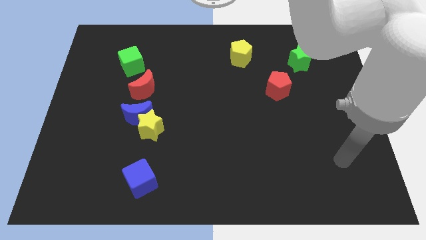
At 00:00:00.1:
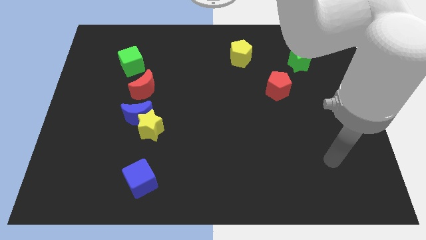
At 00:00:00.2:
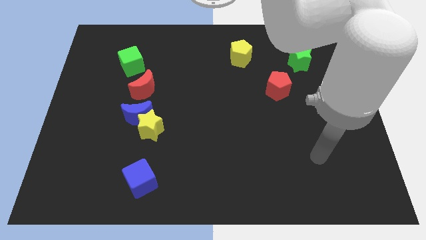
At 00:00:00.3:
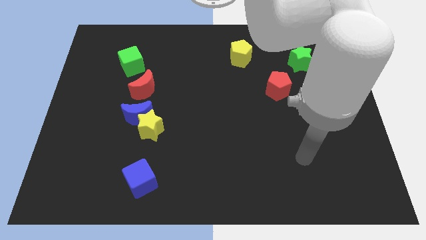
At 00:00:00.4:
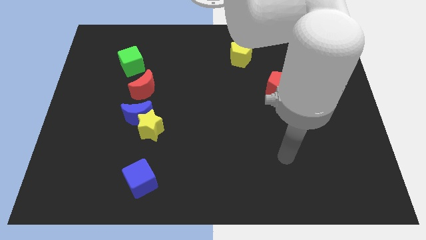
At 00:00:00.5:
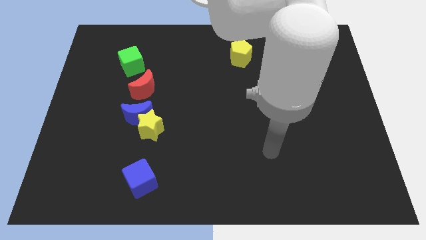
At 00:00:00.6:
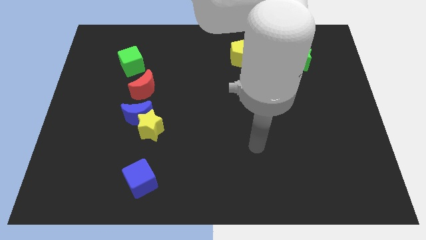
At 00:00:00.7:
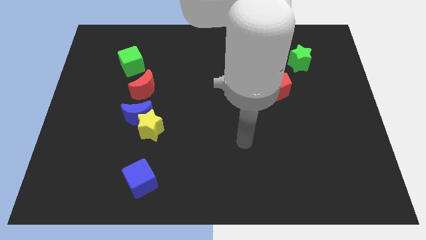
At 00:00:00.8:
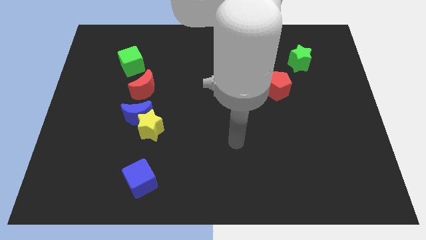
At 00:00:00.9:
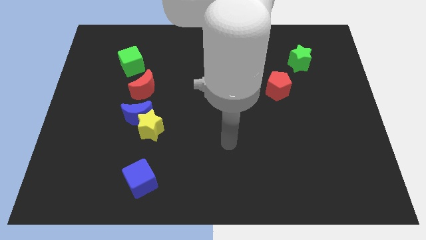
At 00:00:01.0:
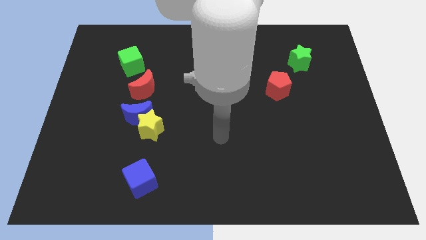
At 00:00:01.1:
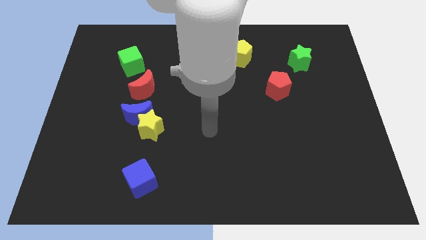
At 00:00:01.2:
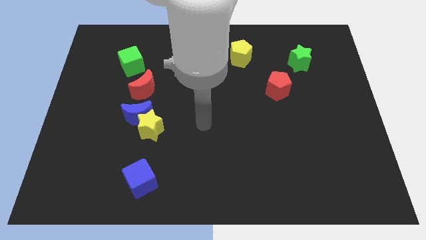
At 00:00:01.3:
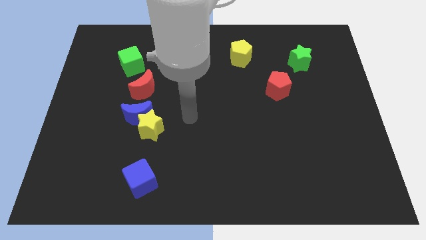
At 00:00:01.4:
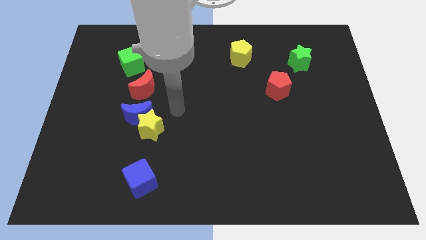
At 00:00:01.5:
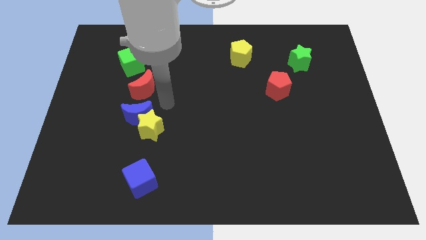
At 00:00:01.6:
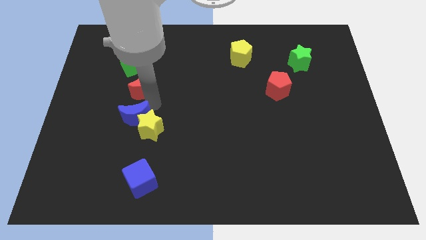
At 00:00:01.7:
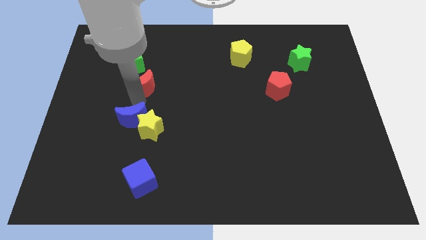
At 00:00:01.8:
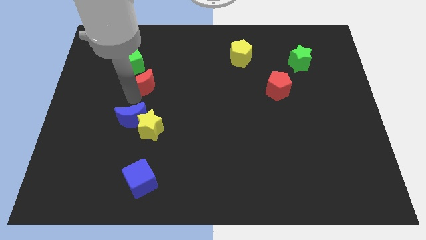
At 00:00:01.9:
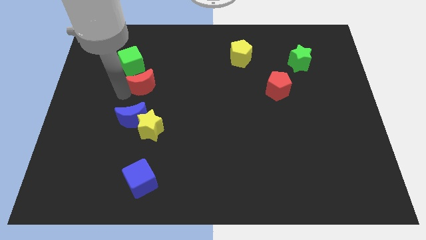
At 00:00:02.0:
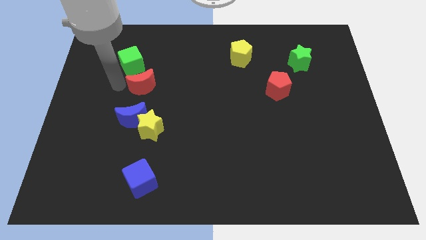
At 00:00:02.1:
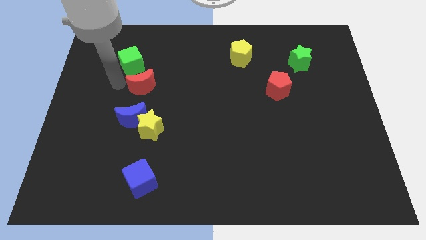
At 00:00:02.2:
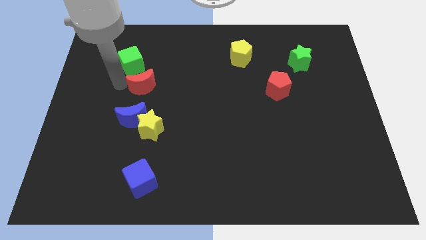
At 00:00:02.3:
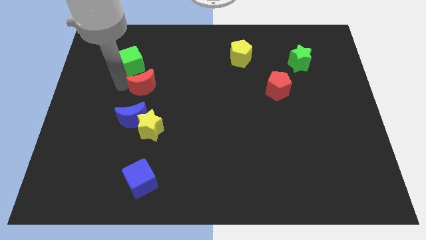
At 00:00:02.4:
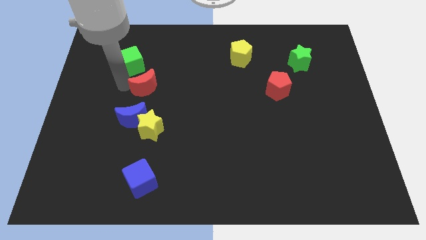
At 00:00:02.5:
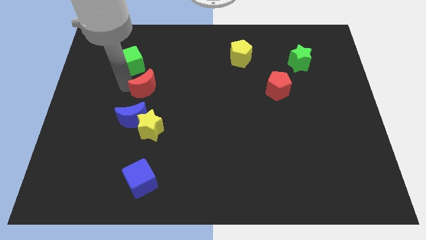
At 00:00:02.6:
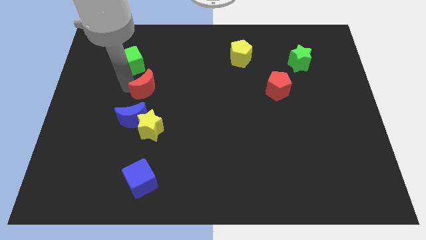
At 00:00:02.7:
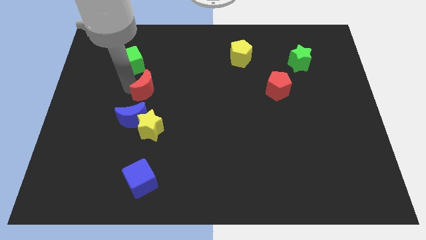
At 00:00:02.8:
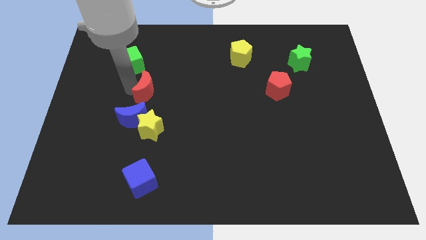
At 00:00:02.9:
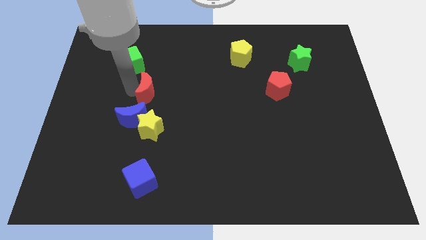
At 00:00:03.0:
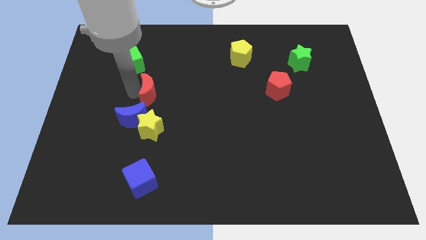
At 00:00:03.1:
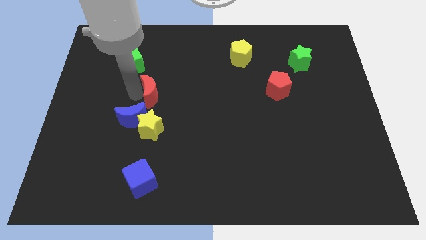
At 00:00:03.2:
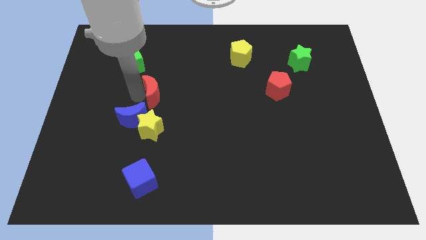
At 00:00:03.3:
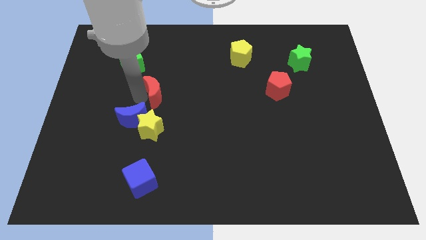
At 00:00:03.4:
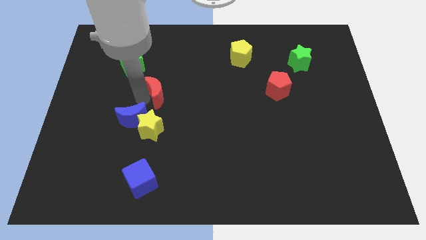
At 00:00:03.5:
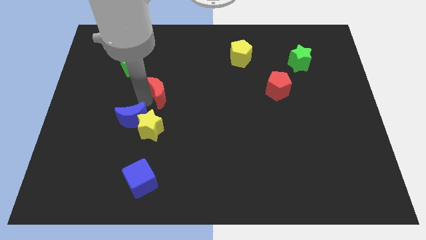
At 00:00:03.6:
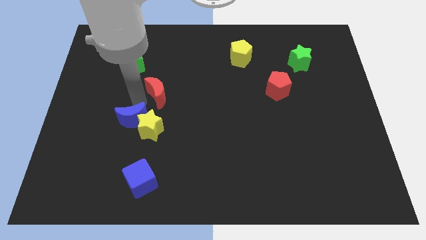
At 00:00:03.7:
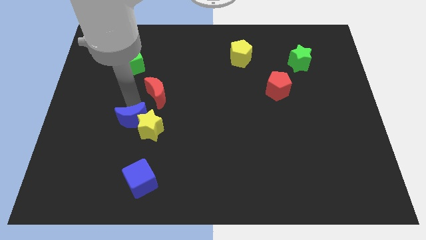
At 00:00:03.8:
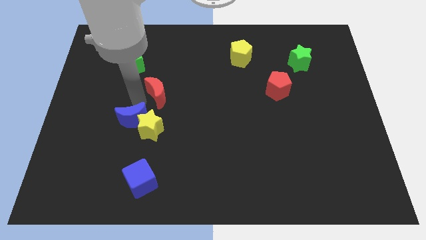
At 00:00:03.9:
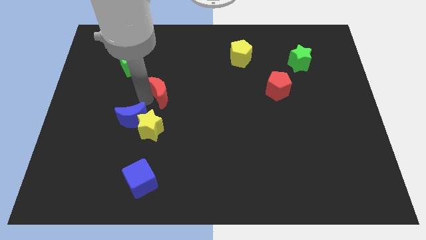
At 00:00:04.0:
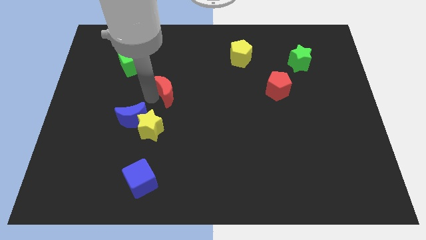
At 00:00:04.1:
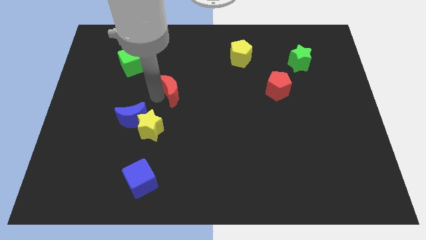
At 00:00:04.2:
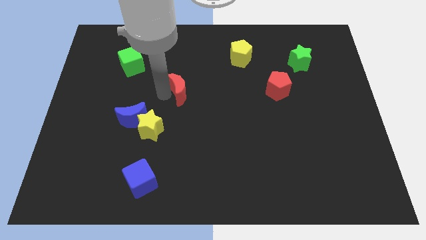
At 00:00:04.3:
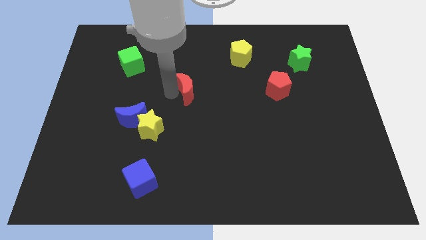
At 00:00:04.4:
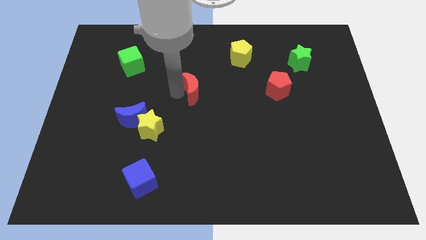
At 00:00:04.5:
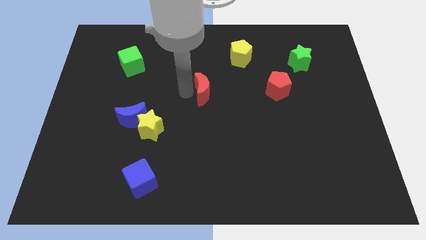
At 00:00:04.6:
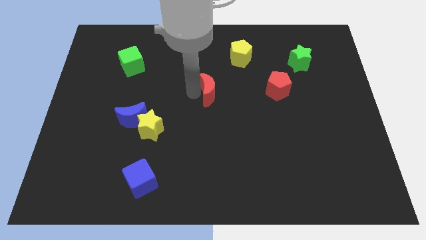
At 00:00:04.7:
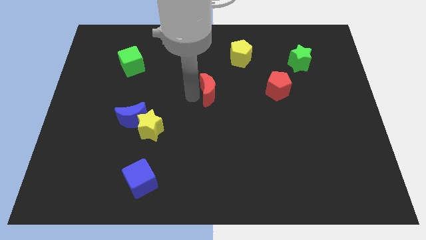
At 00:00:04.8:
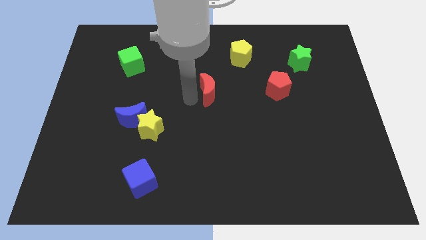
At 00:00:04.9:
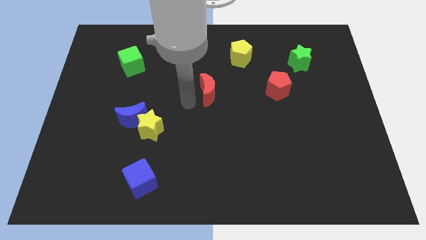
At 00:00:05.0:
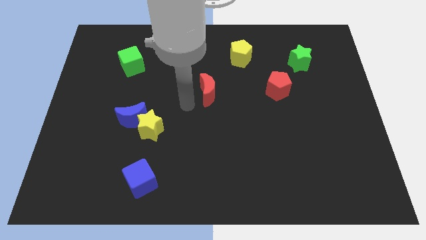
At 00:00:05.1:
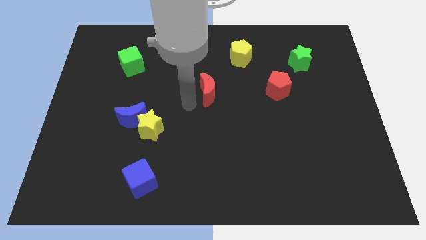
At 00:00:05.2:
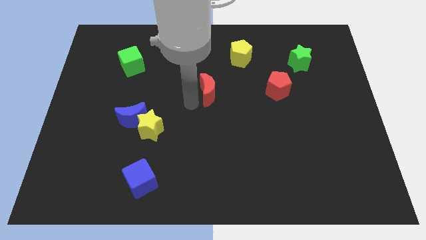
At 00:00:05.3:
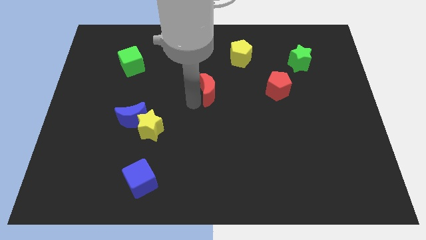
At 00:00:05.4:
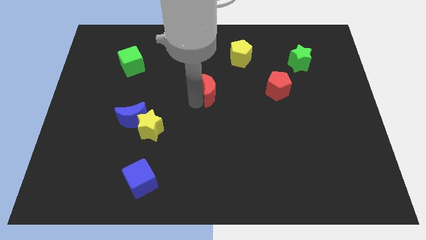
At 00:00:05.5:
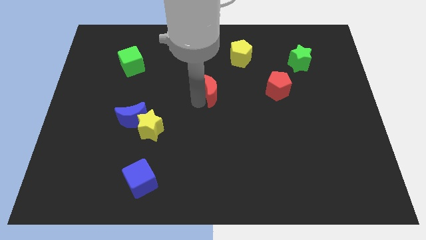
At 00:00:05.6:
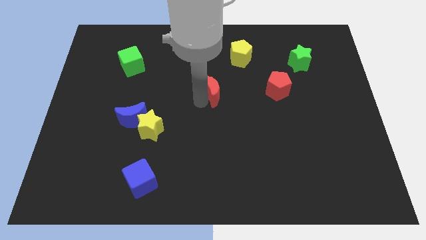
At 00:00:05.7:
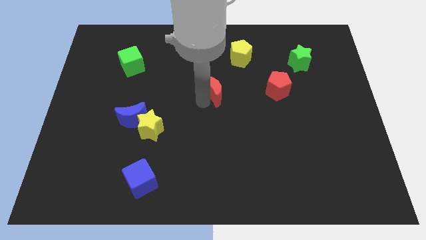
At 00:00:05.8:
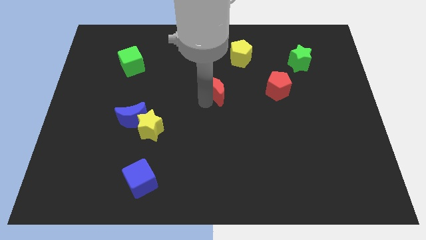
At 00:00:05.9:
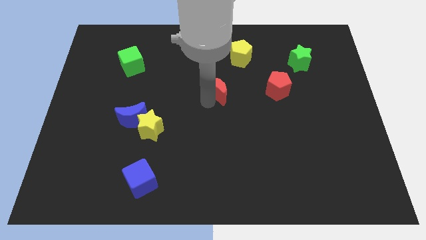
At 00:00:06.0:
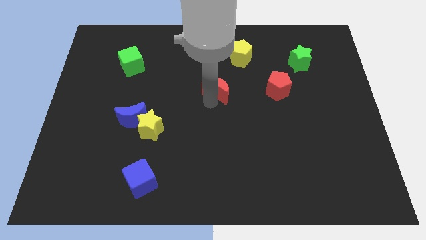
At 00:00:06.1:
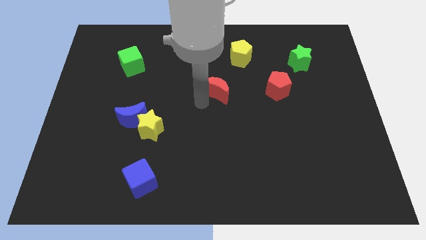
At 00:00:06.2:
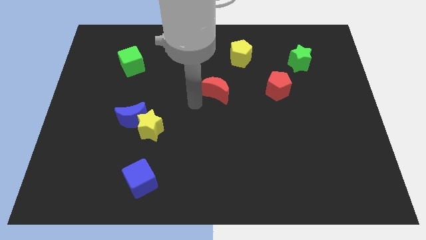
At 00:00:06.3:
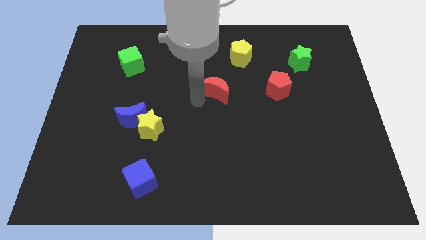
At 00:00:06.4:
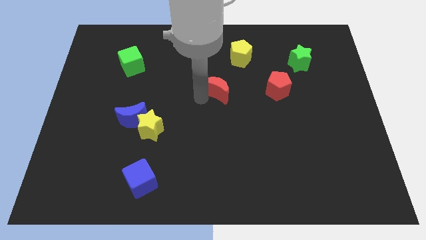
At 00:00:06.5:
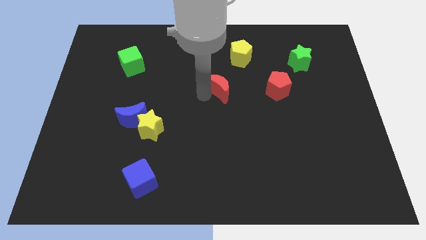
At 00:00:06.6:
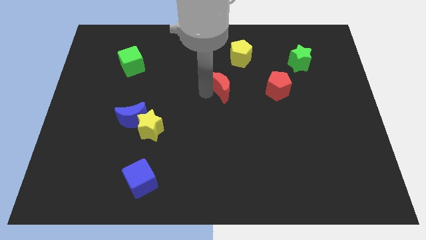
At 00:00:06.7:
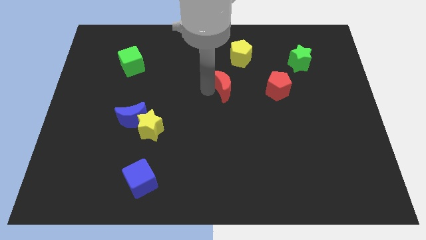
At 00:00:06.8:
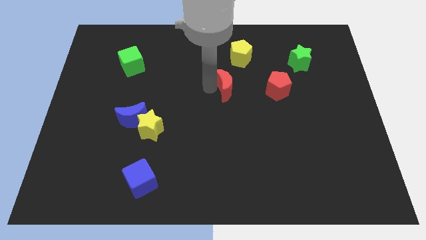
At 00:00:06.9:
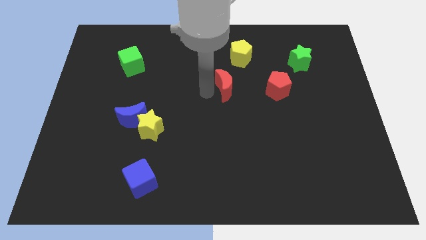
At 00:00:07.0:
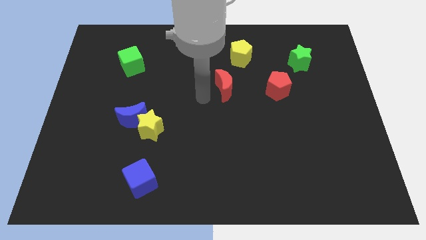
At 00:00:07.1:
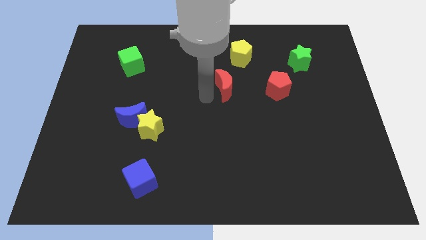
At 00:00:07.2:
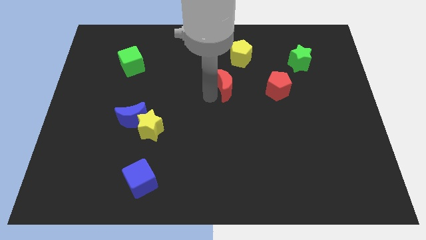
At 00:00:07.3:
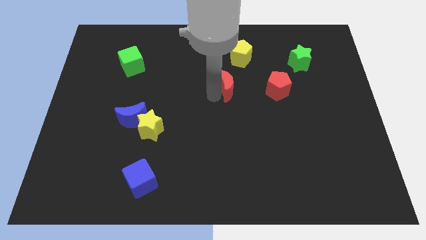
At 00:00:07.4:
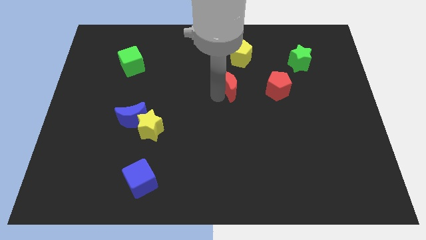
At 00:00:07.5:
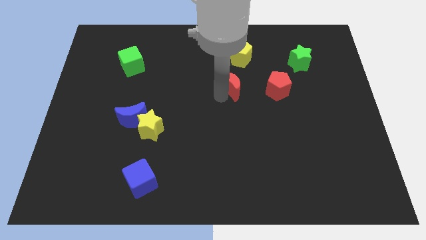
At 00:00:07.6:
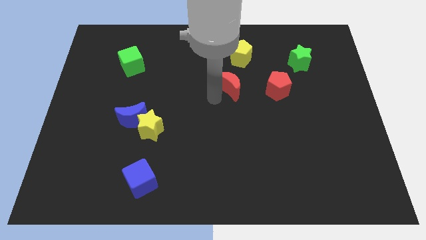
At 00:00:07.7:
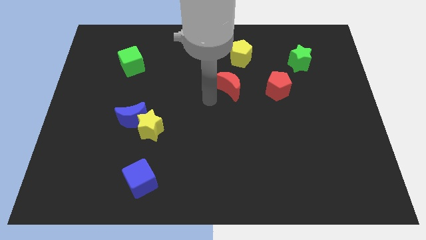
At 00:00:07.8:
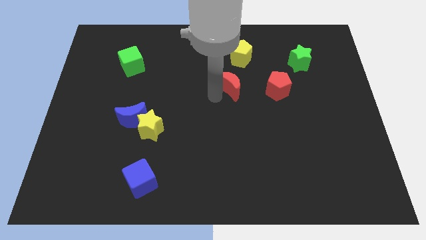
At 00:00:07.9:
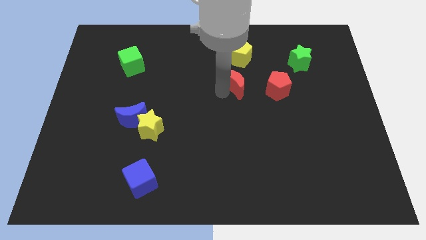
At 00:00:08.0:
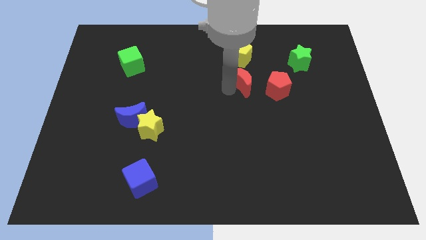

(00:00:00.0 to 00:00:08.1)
slide the red moon diagonally up and to the left of the red pentagon
